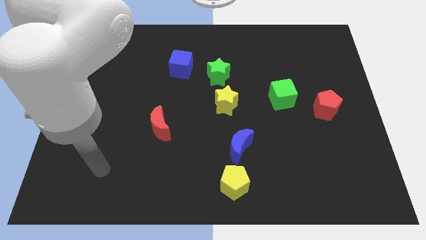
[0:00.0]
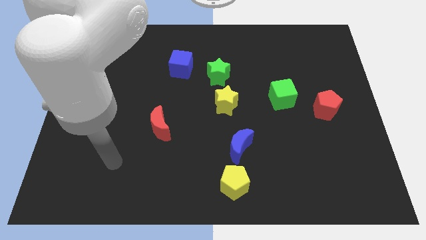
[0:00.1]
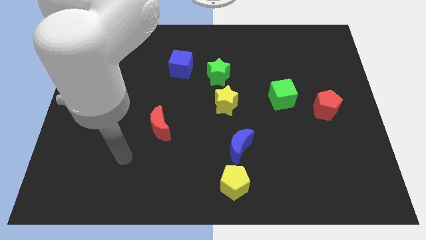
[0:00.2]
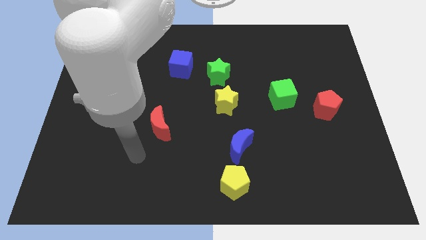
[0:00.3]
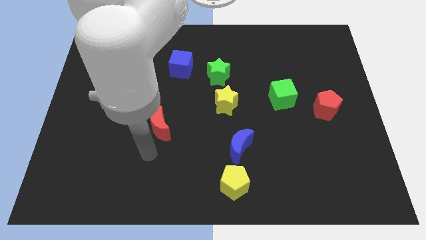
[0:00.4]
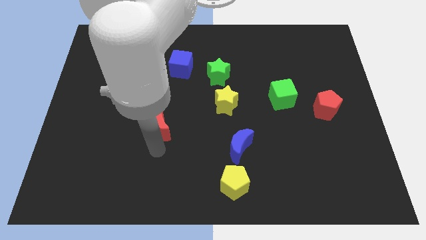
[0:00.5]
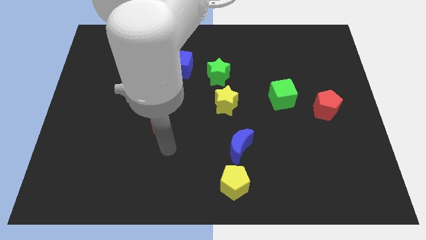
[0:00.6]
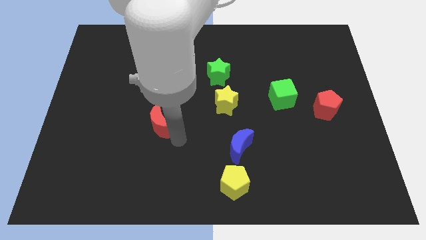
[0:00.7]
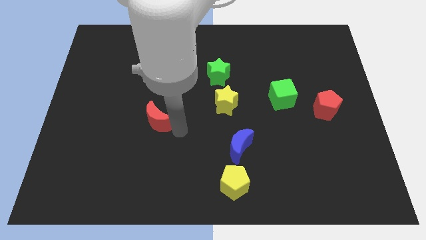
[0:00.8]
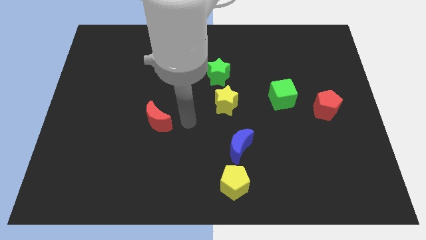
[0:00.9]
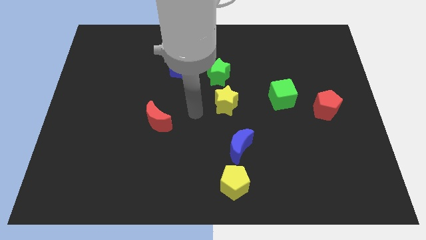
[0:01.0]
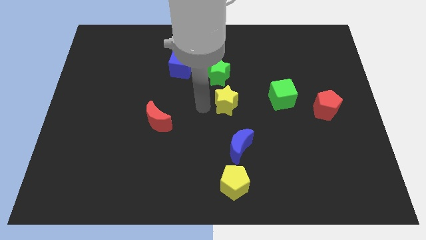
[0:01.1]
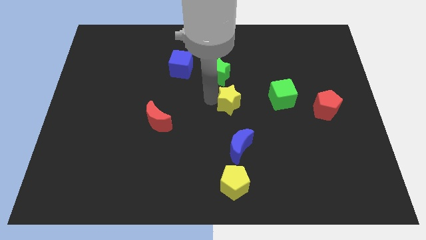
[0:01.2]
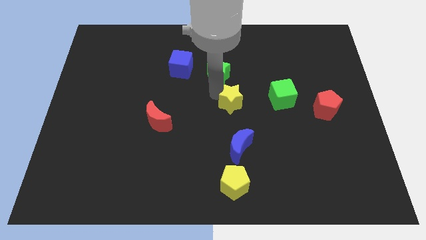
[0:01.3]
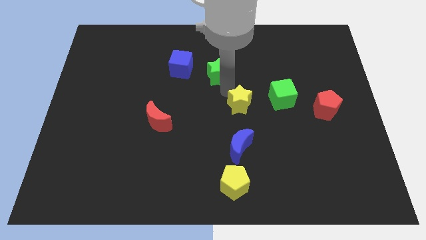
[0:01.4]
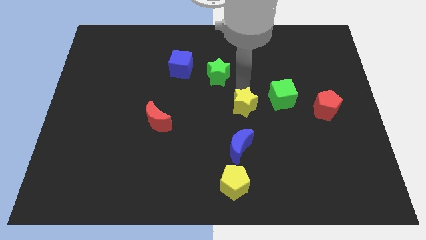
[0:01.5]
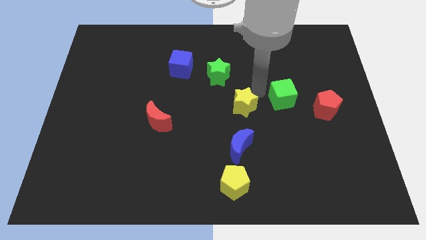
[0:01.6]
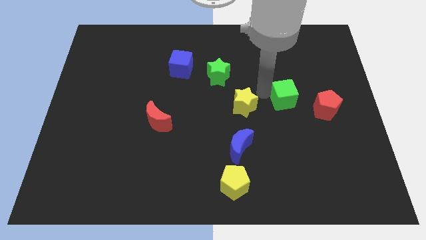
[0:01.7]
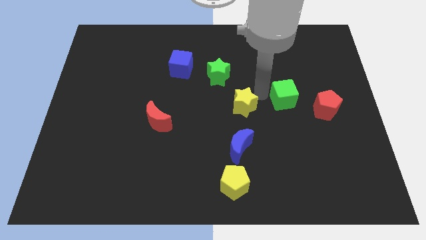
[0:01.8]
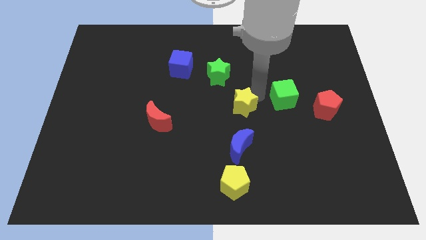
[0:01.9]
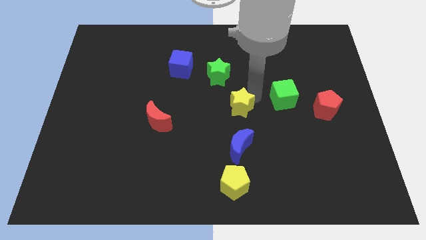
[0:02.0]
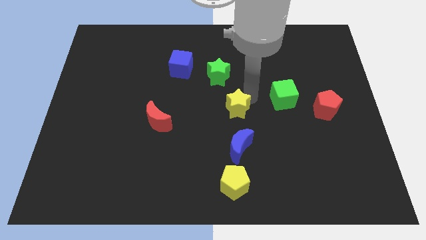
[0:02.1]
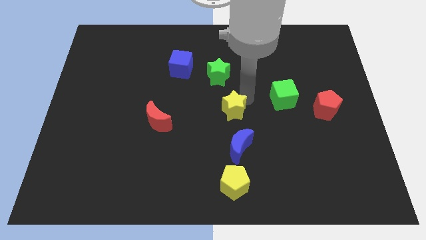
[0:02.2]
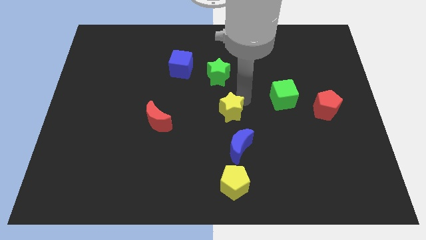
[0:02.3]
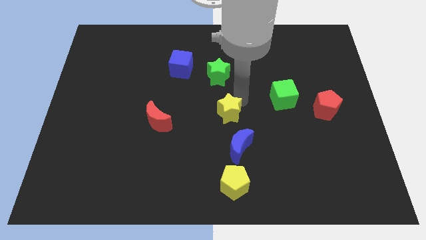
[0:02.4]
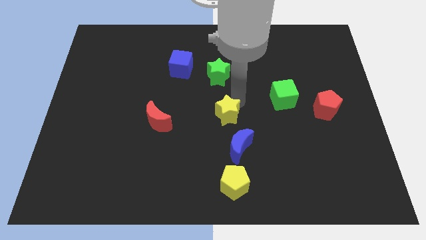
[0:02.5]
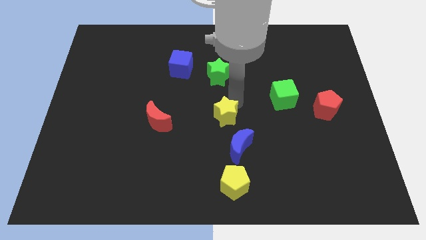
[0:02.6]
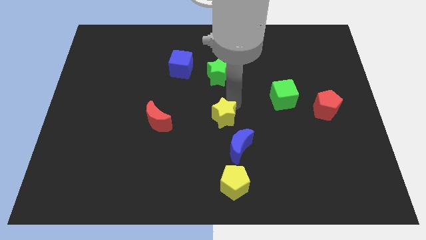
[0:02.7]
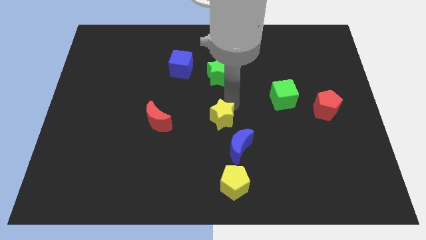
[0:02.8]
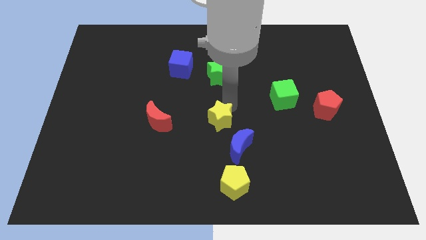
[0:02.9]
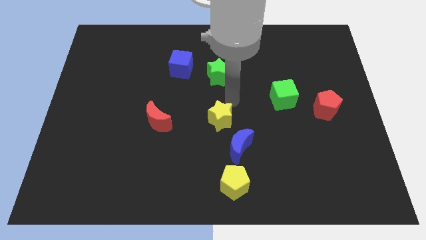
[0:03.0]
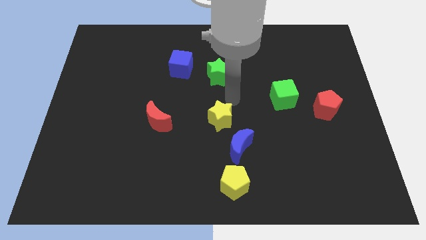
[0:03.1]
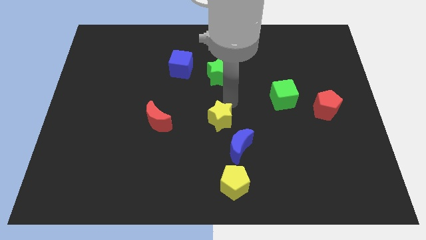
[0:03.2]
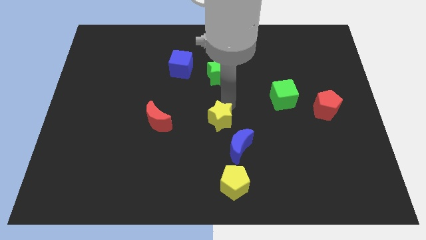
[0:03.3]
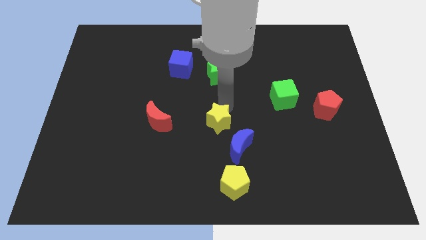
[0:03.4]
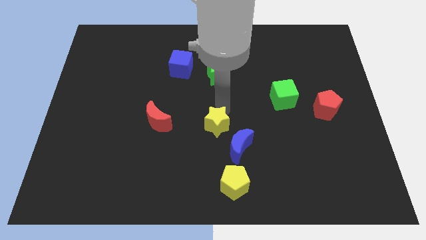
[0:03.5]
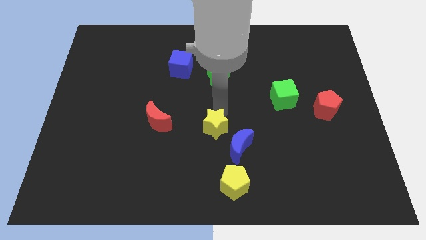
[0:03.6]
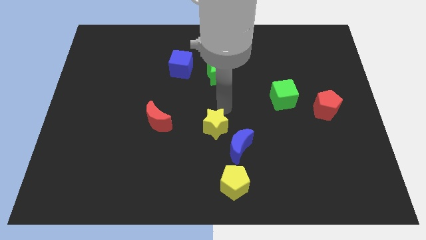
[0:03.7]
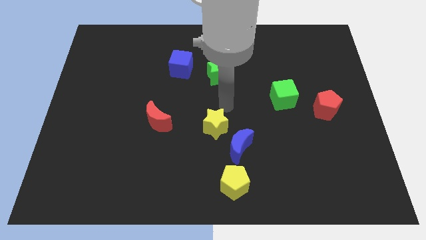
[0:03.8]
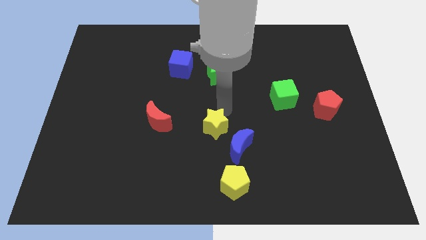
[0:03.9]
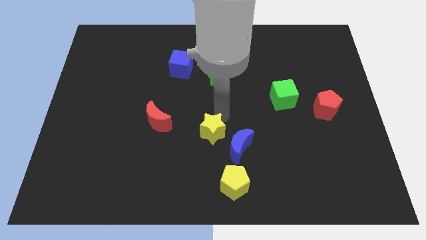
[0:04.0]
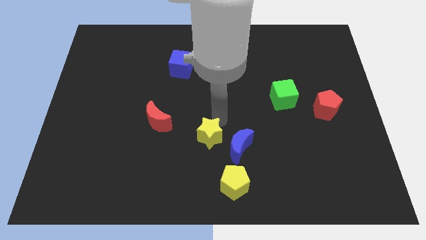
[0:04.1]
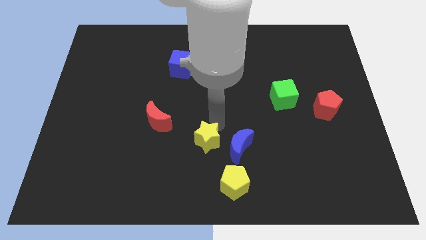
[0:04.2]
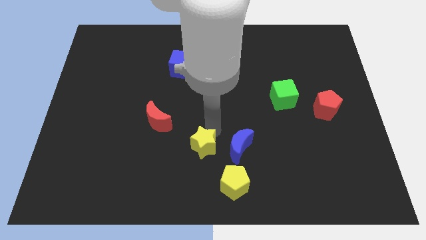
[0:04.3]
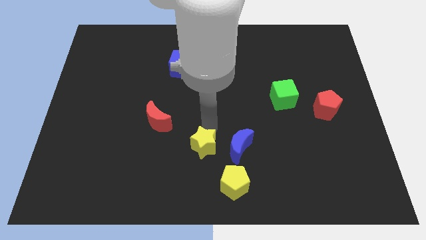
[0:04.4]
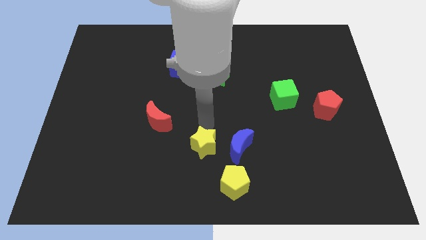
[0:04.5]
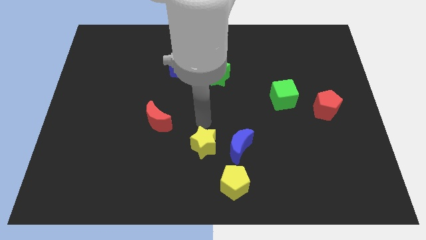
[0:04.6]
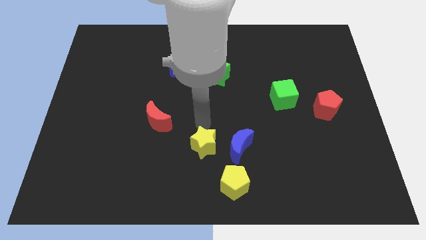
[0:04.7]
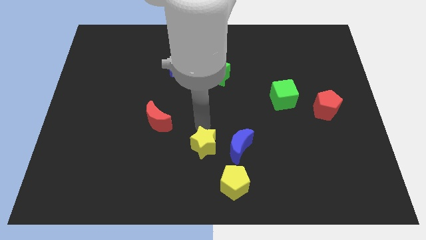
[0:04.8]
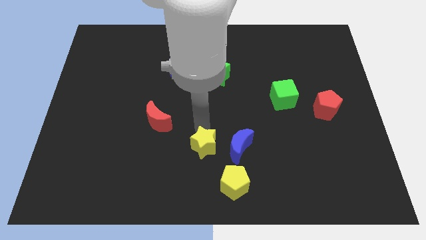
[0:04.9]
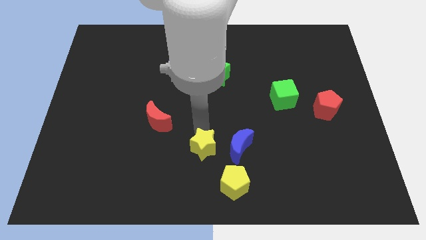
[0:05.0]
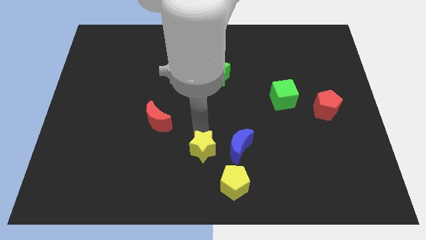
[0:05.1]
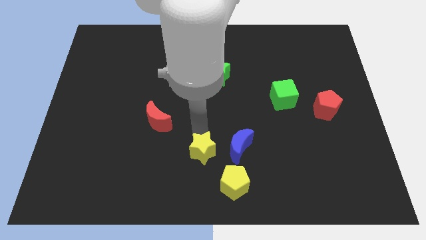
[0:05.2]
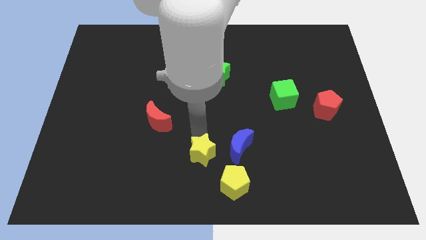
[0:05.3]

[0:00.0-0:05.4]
put the yellow star to the bottom side

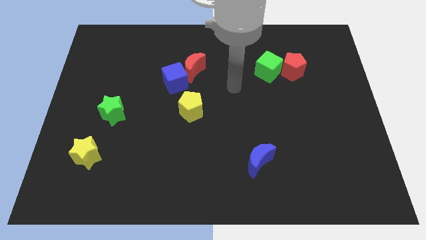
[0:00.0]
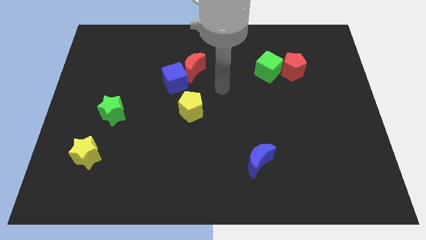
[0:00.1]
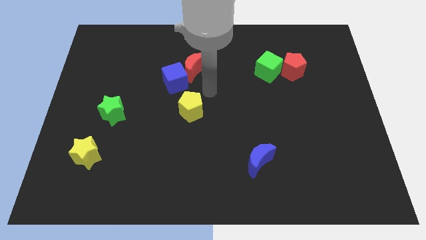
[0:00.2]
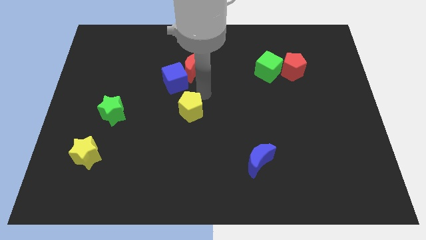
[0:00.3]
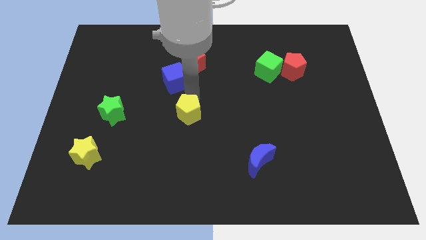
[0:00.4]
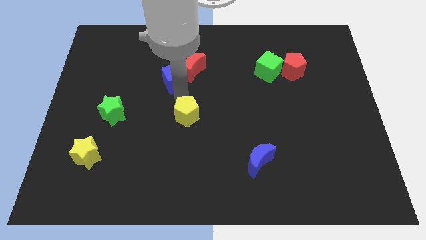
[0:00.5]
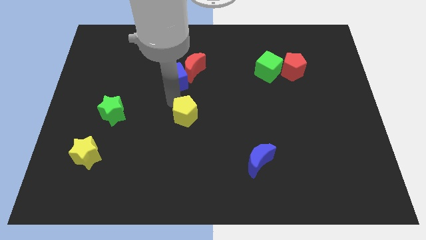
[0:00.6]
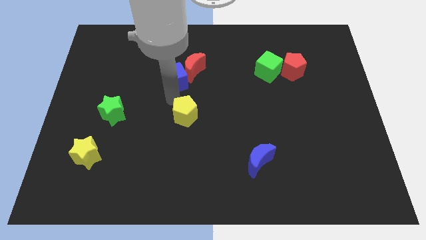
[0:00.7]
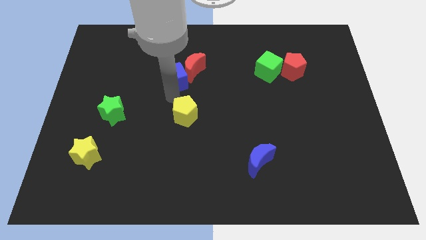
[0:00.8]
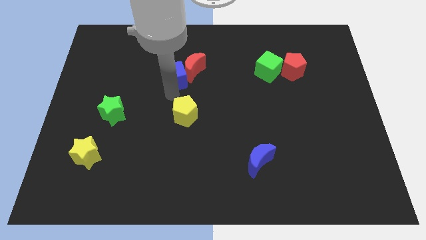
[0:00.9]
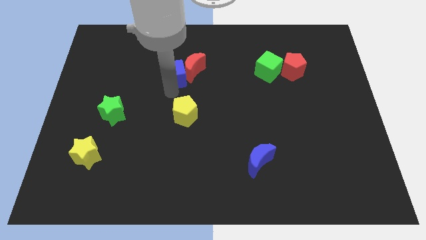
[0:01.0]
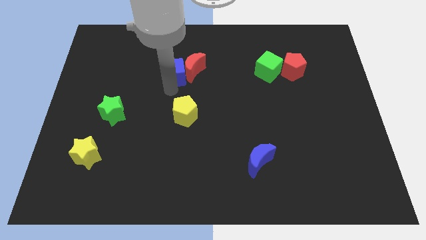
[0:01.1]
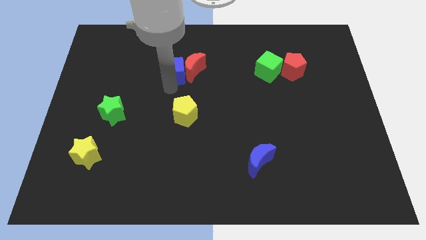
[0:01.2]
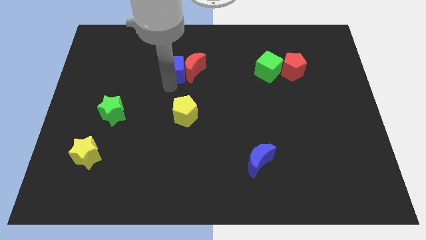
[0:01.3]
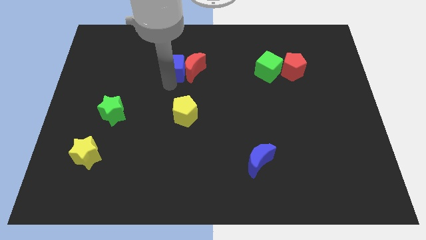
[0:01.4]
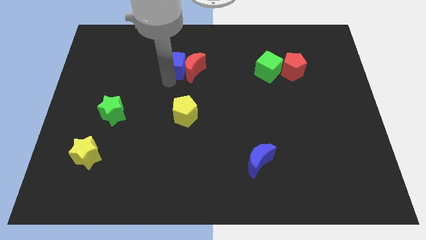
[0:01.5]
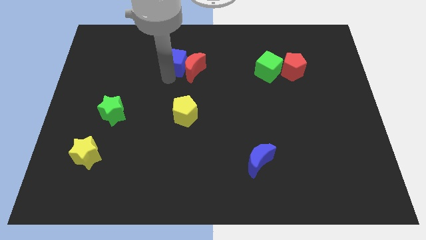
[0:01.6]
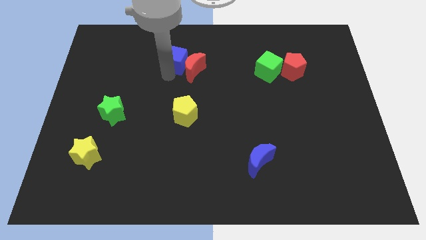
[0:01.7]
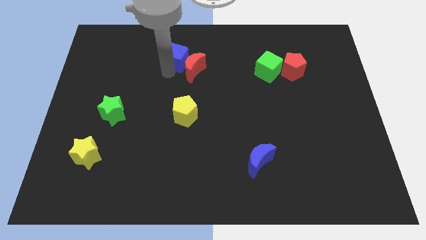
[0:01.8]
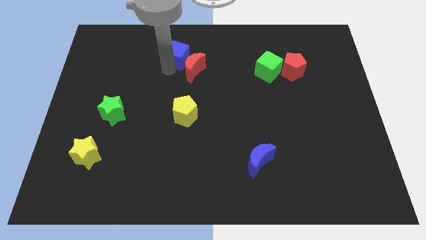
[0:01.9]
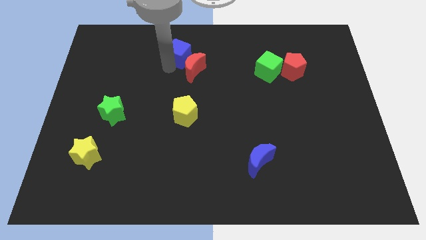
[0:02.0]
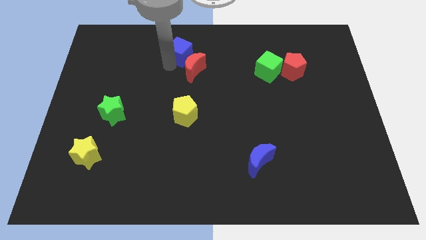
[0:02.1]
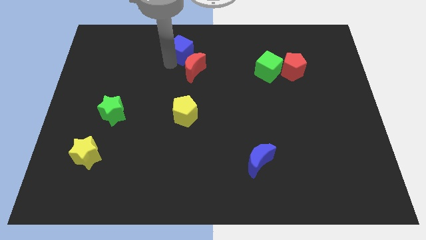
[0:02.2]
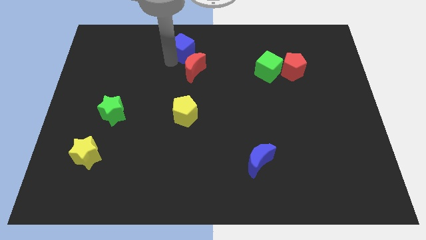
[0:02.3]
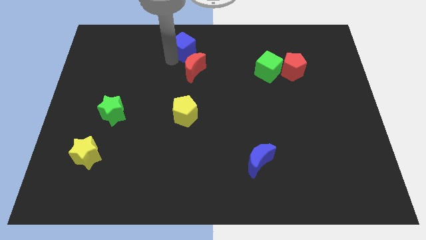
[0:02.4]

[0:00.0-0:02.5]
move the blue cube to the towards your base
